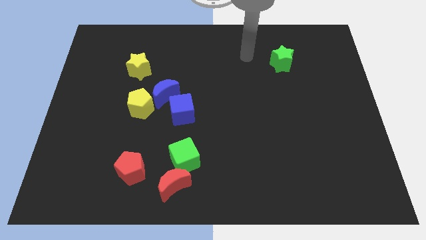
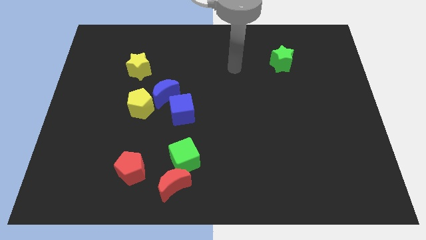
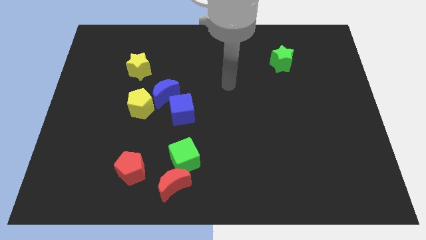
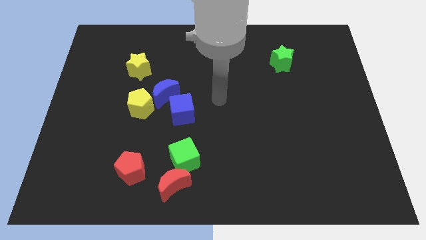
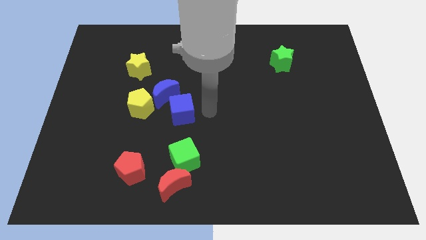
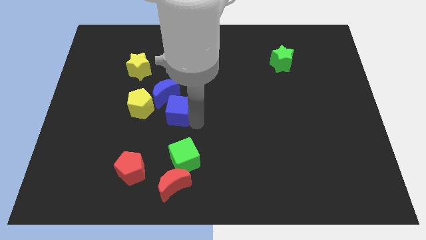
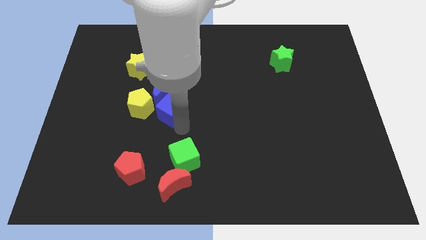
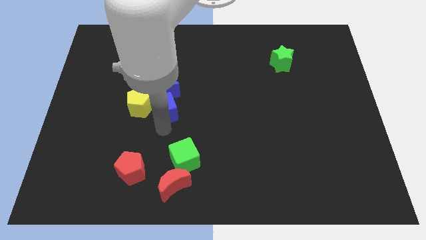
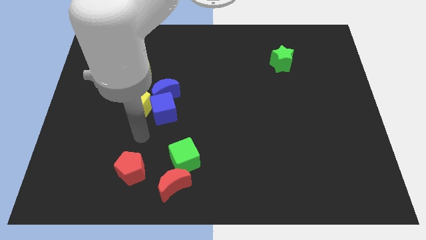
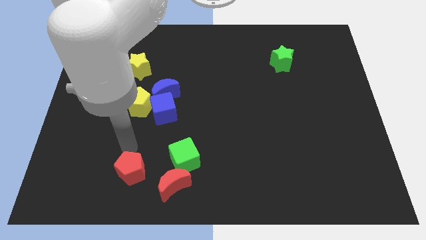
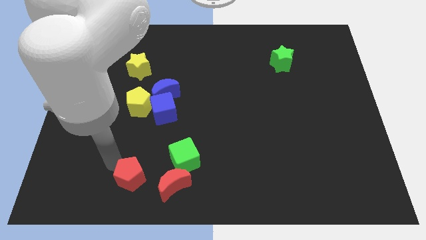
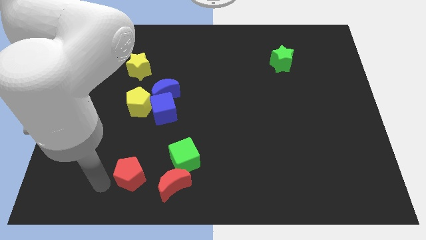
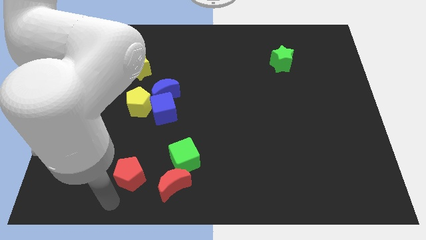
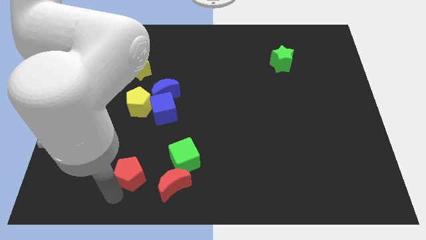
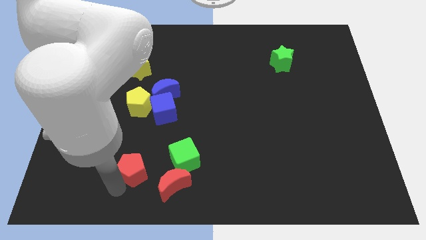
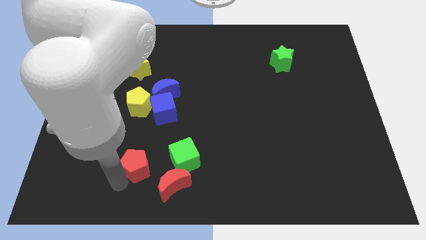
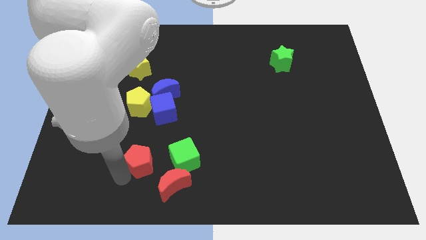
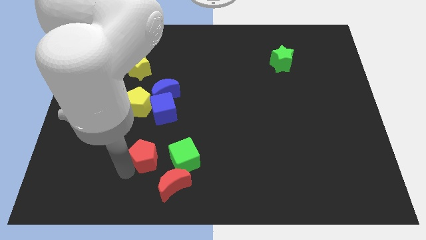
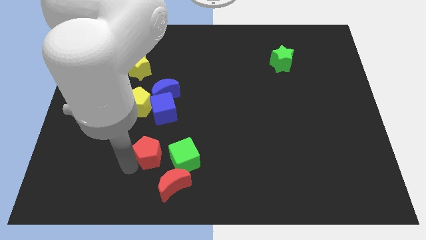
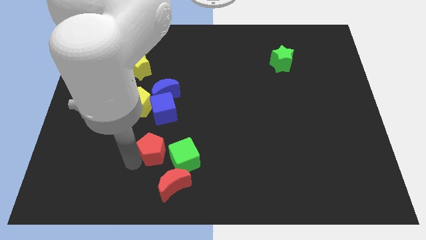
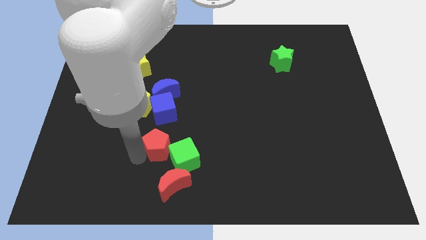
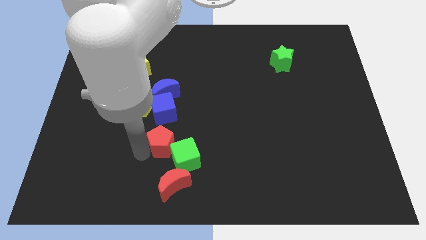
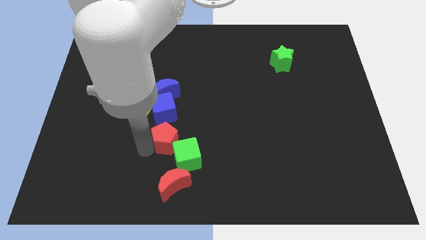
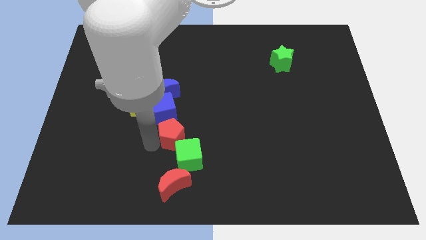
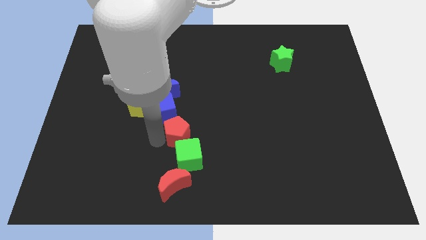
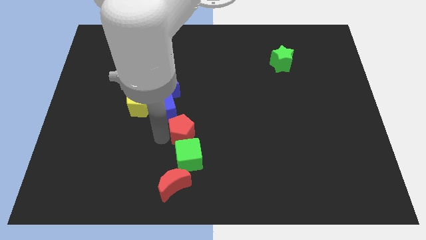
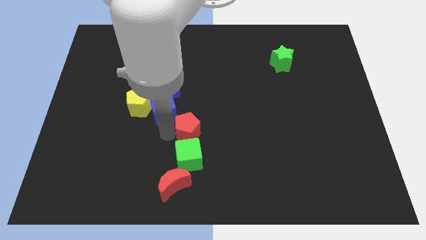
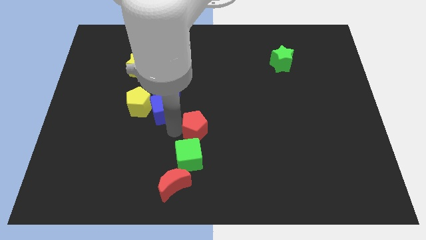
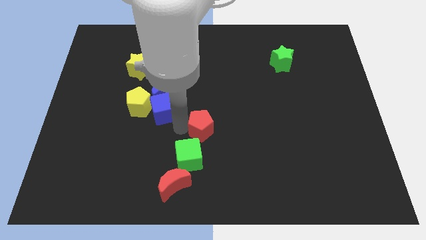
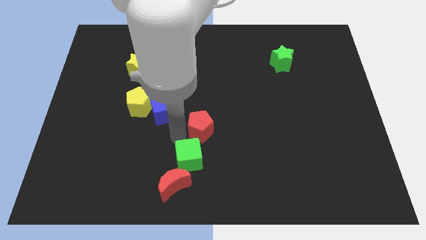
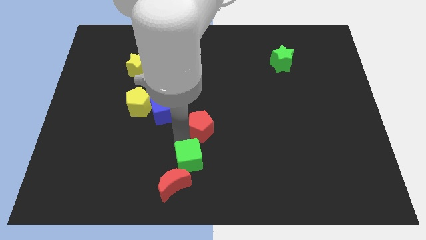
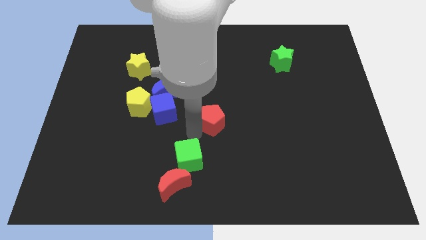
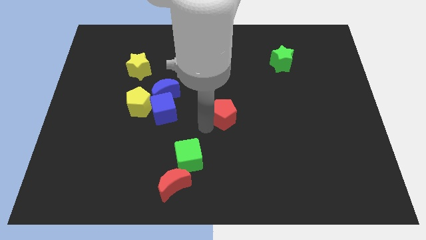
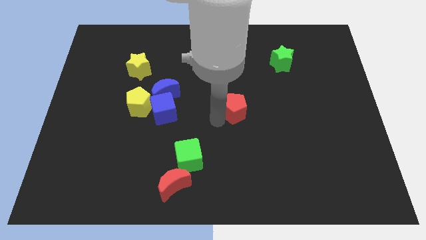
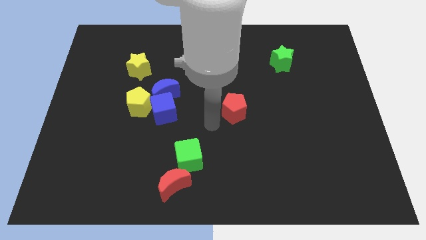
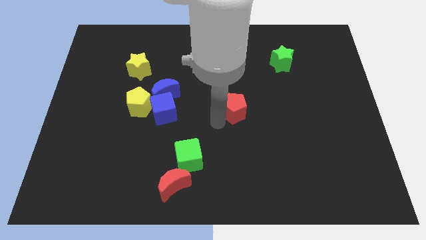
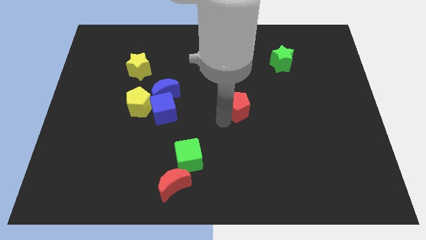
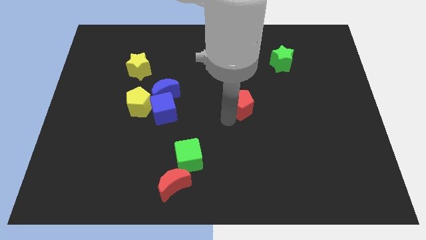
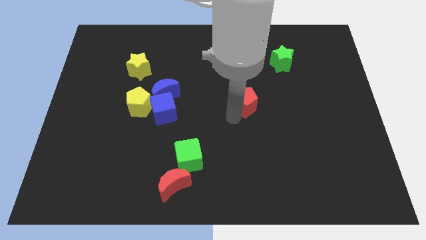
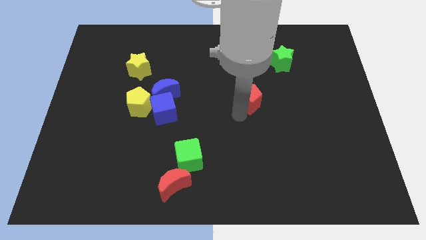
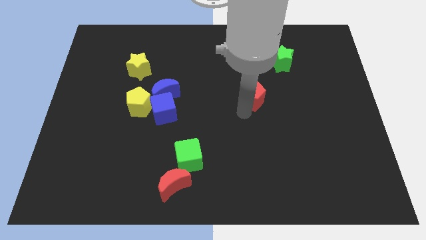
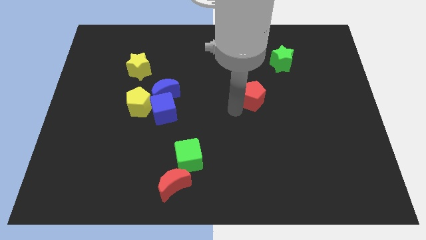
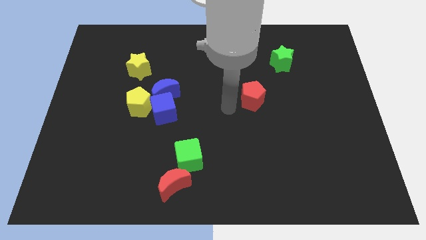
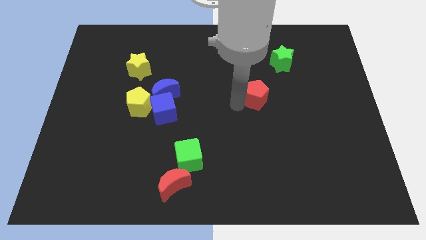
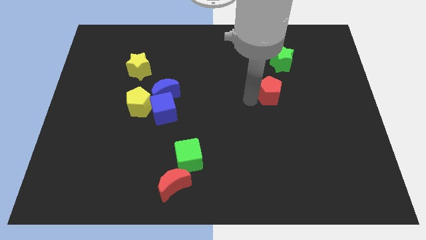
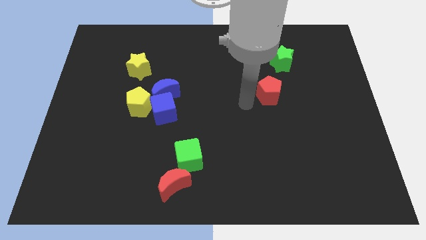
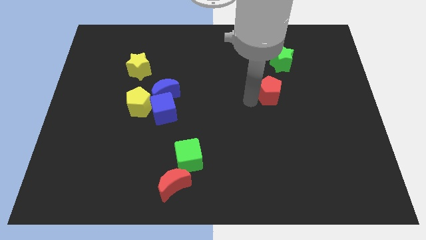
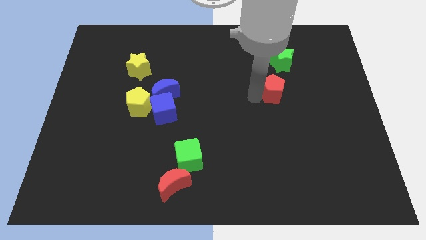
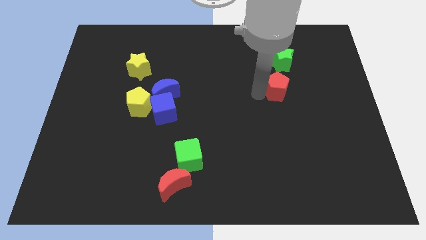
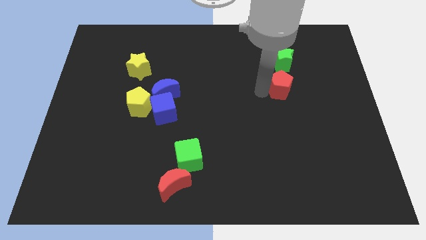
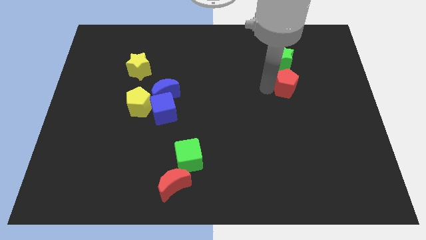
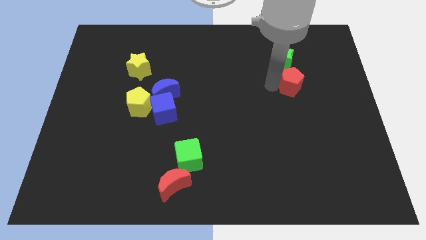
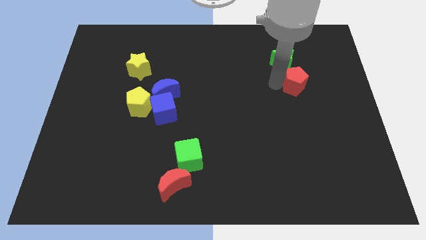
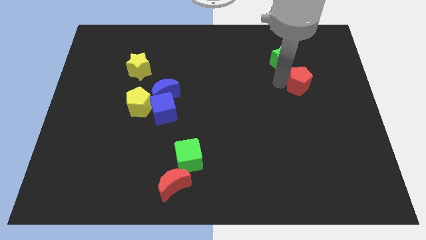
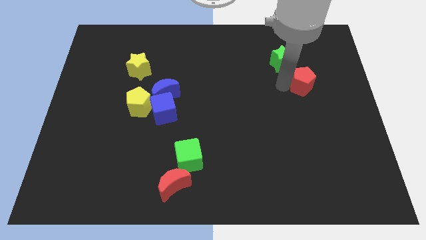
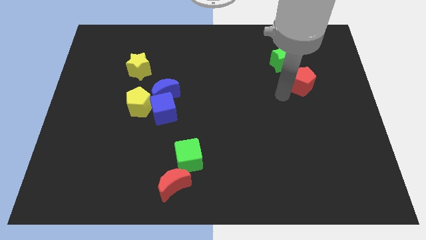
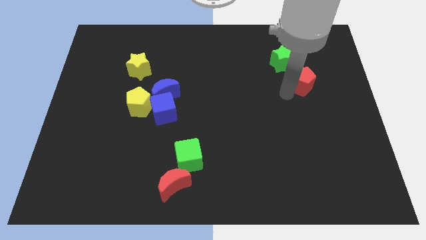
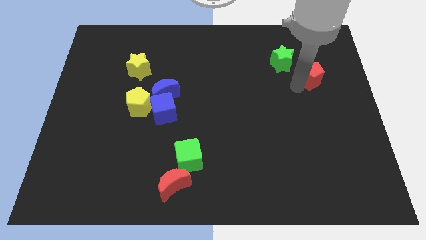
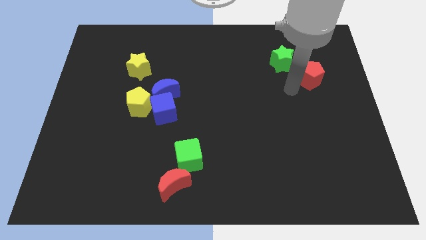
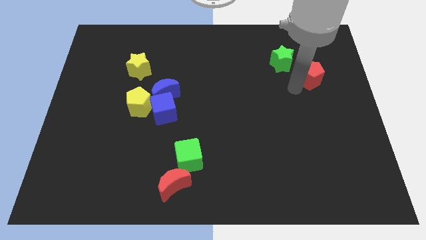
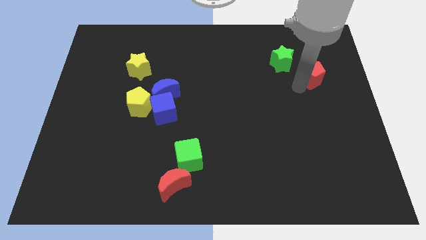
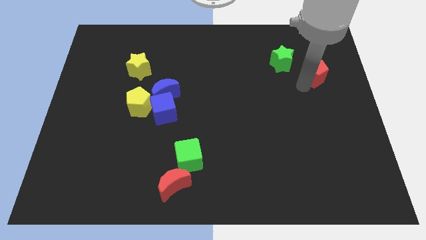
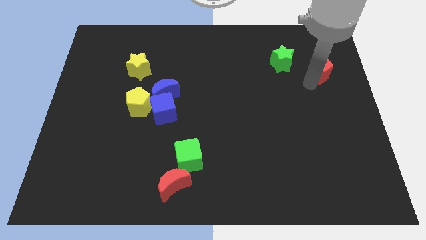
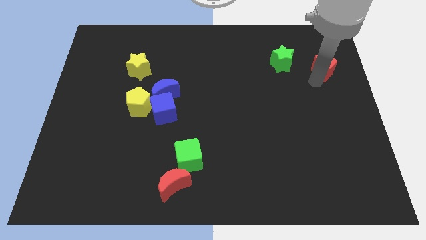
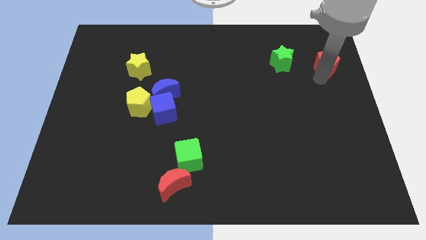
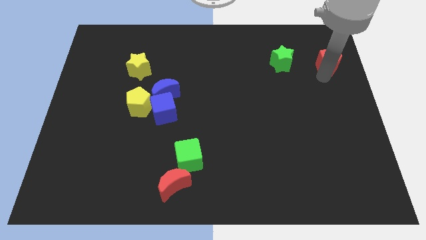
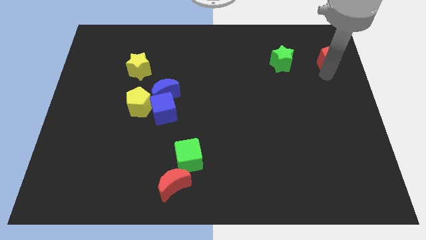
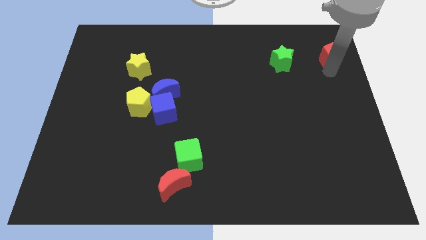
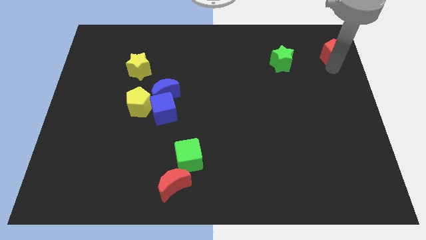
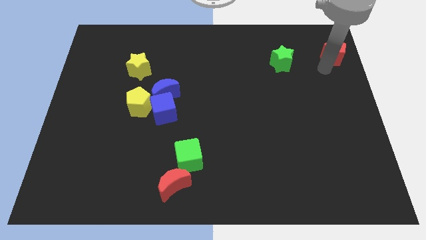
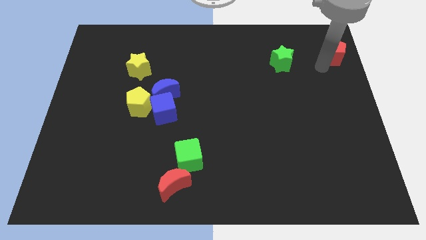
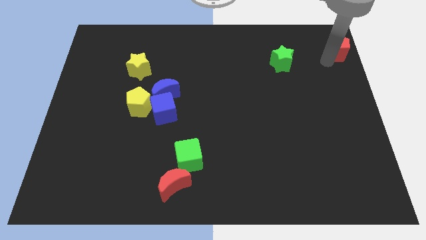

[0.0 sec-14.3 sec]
slide the red pentagon to the top right of the board
